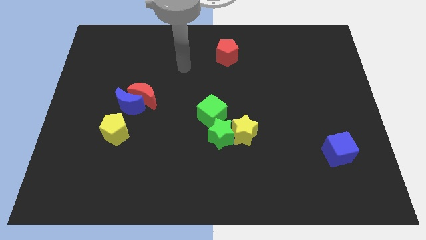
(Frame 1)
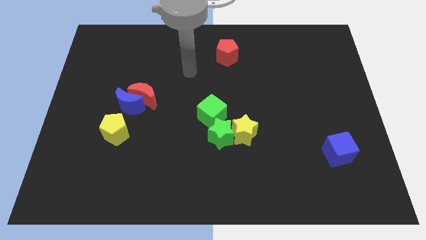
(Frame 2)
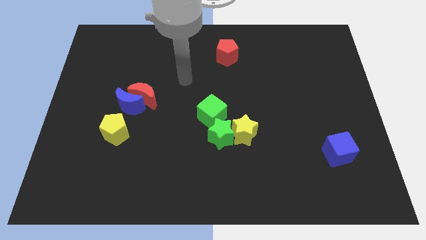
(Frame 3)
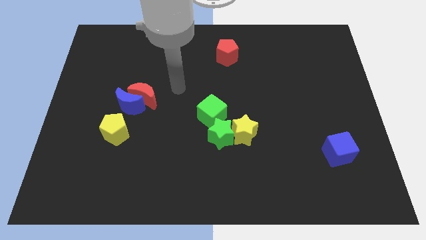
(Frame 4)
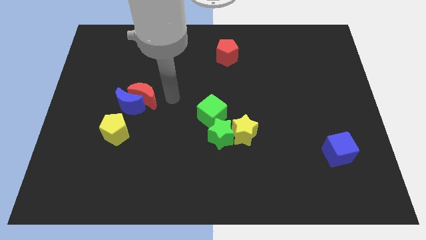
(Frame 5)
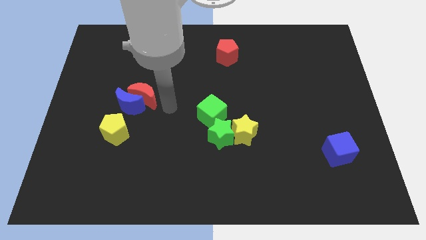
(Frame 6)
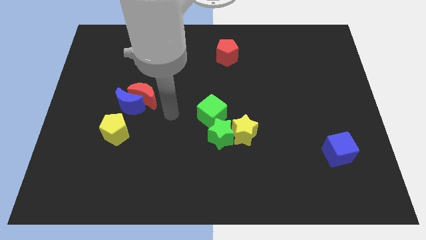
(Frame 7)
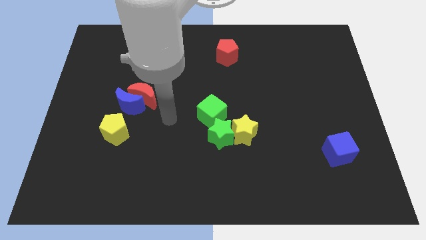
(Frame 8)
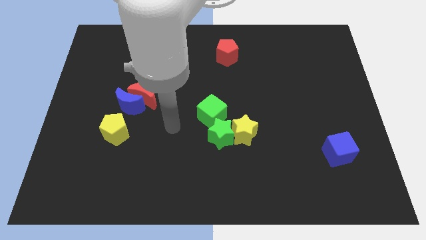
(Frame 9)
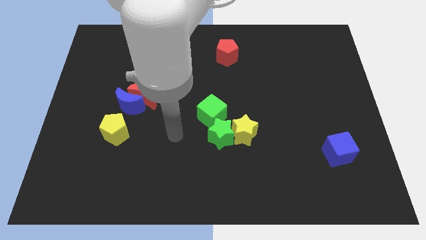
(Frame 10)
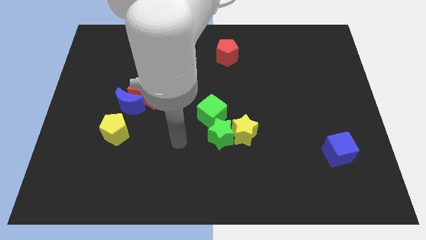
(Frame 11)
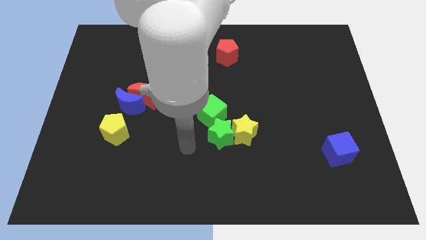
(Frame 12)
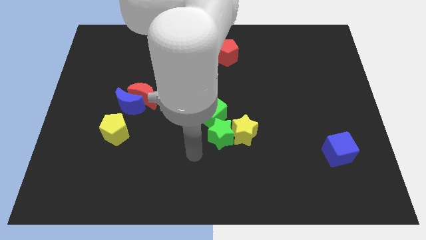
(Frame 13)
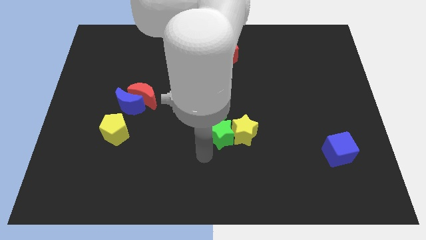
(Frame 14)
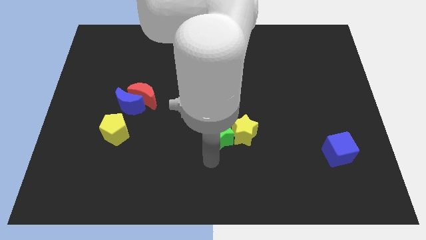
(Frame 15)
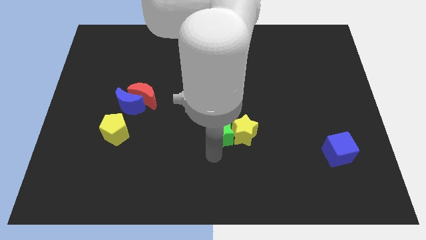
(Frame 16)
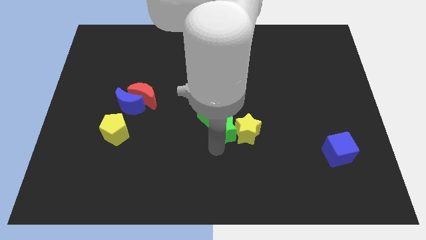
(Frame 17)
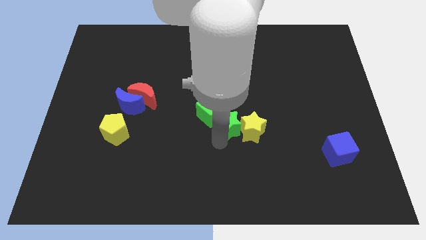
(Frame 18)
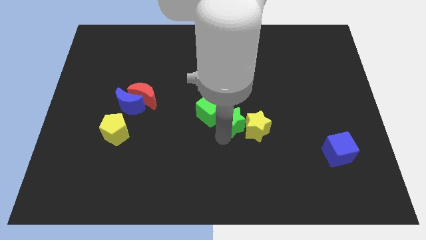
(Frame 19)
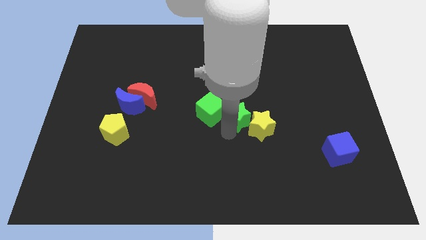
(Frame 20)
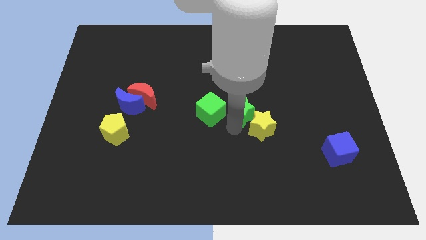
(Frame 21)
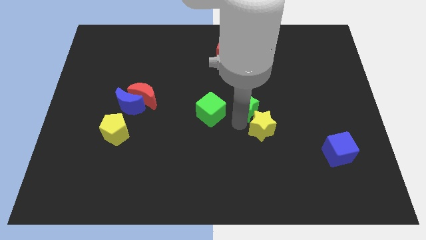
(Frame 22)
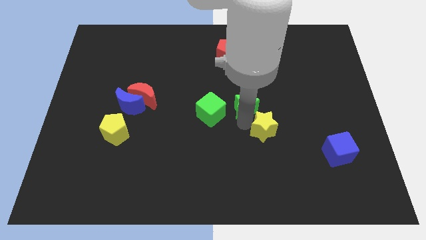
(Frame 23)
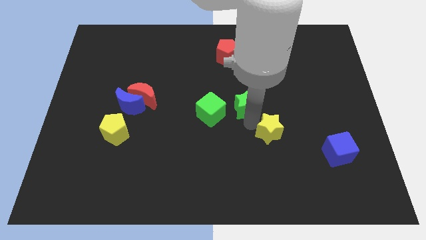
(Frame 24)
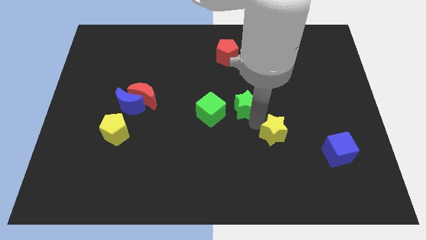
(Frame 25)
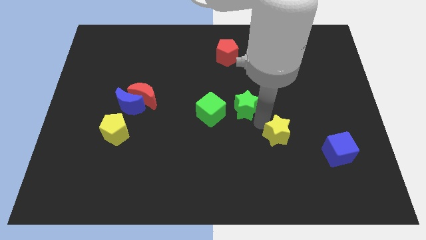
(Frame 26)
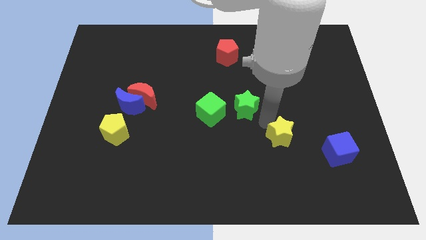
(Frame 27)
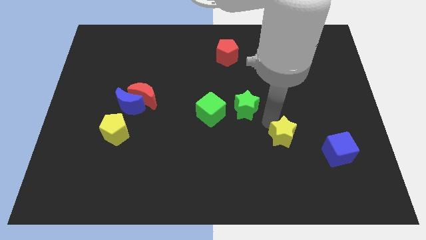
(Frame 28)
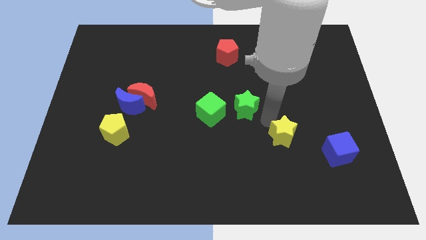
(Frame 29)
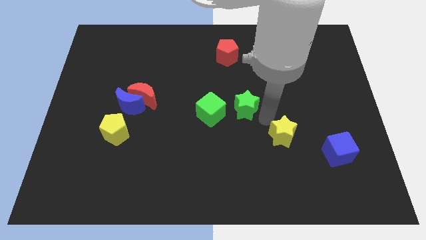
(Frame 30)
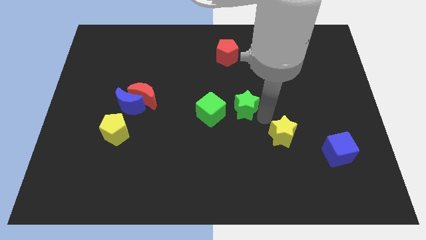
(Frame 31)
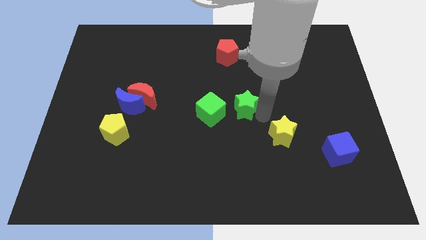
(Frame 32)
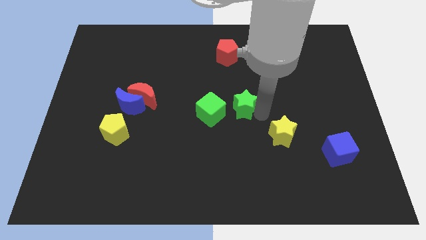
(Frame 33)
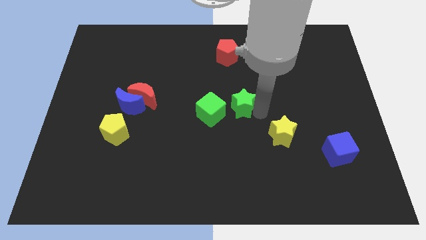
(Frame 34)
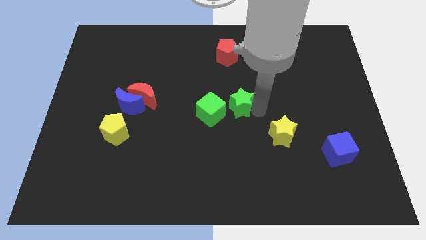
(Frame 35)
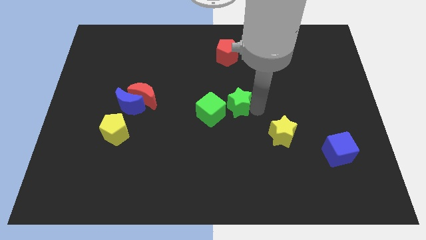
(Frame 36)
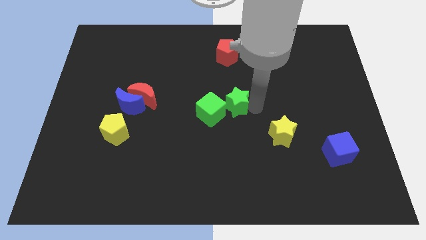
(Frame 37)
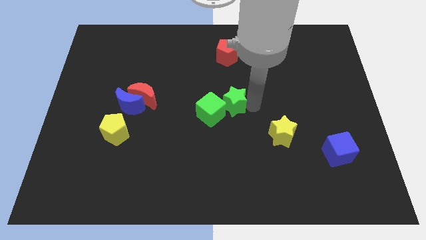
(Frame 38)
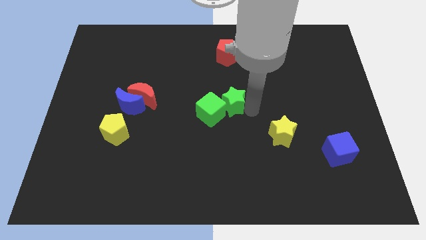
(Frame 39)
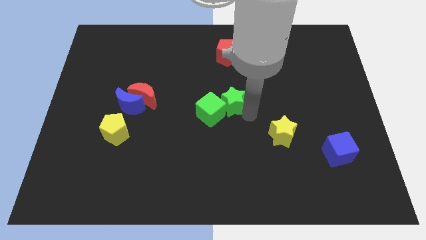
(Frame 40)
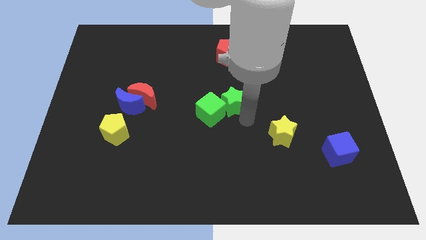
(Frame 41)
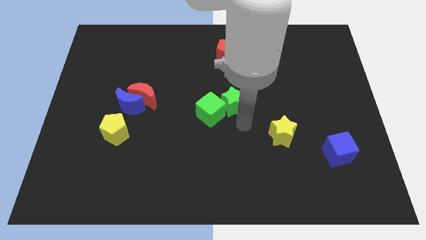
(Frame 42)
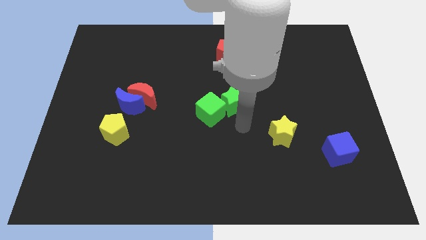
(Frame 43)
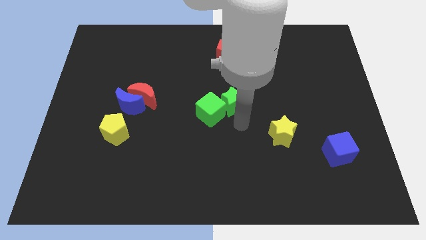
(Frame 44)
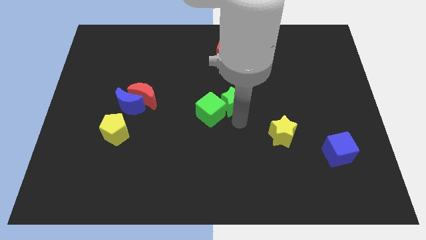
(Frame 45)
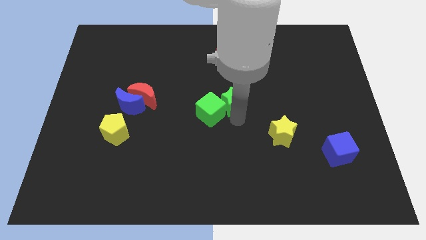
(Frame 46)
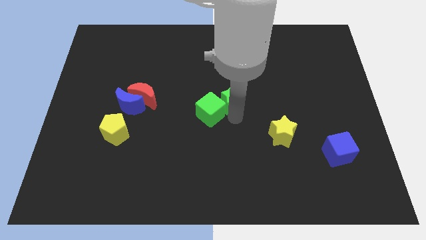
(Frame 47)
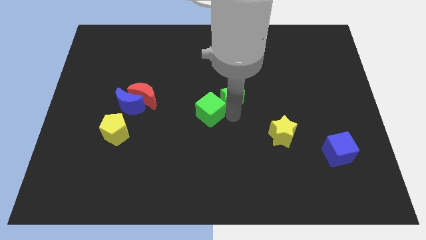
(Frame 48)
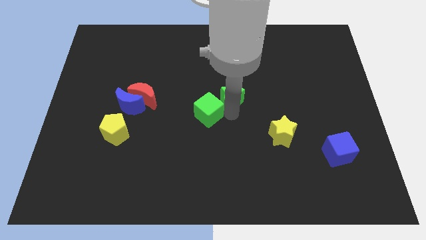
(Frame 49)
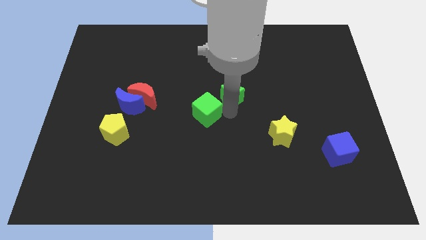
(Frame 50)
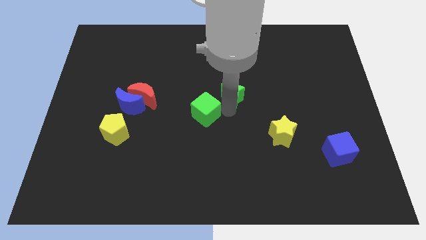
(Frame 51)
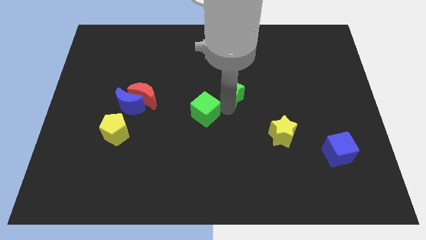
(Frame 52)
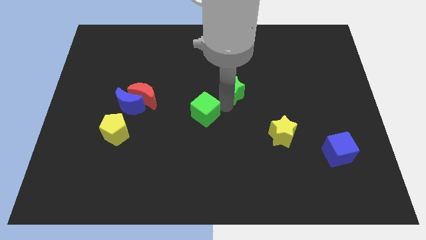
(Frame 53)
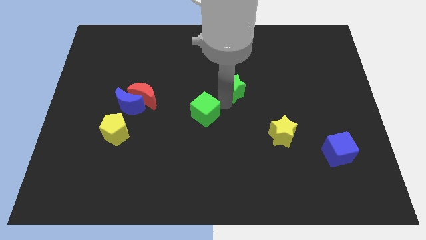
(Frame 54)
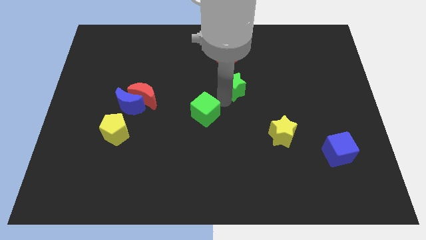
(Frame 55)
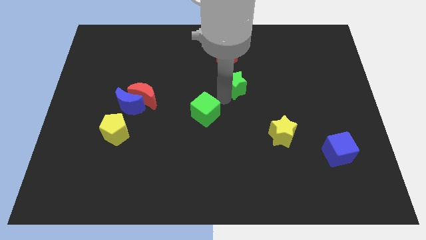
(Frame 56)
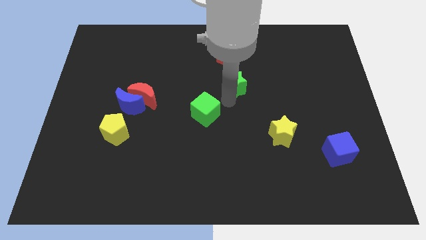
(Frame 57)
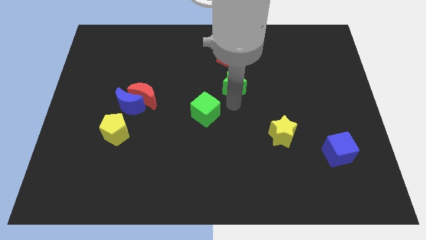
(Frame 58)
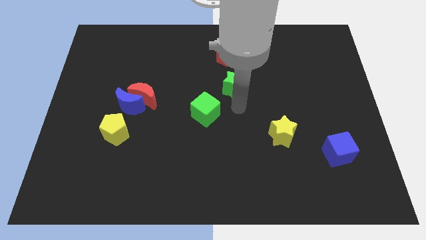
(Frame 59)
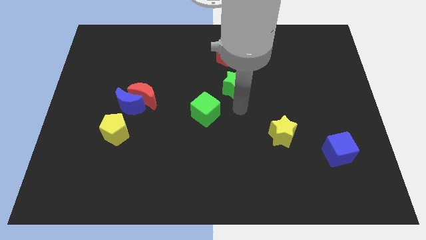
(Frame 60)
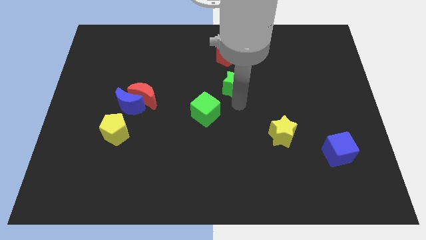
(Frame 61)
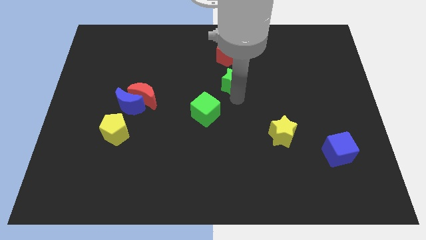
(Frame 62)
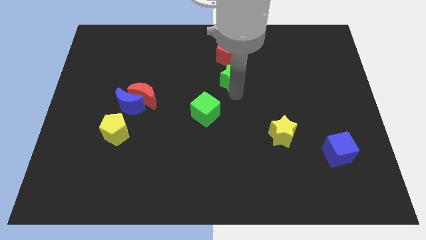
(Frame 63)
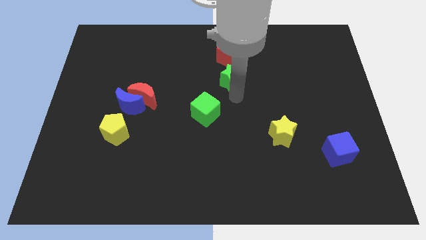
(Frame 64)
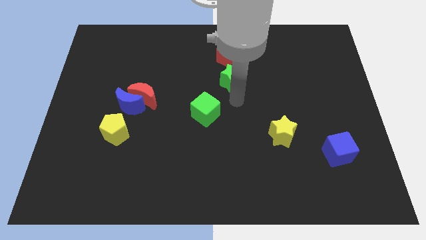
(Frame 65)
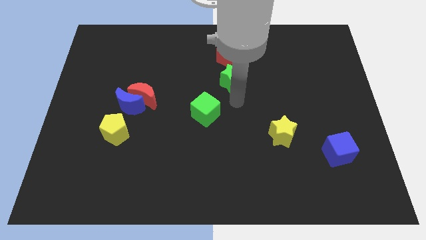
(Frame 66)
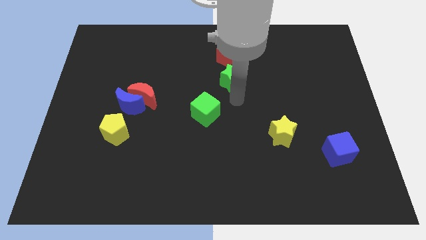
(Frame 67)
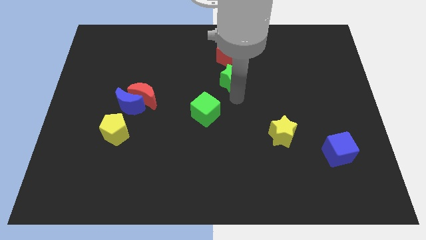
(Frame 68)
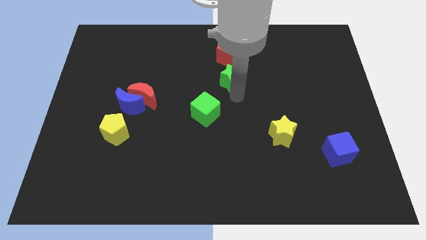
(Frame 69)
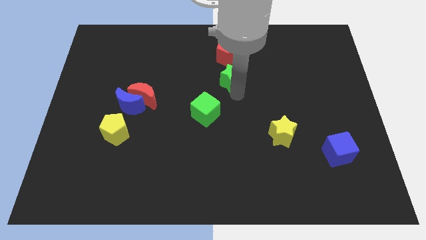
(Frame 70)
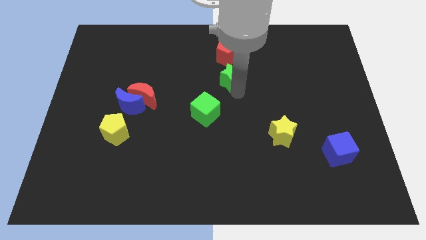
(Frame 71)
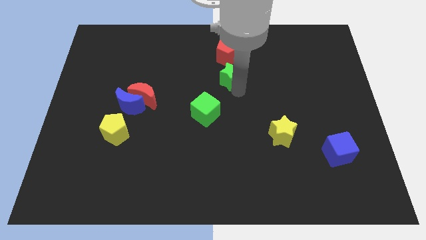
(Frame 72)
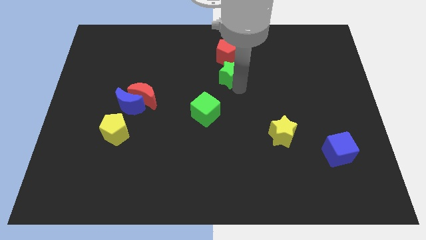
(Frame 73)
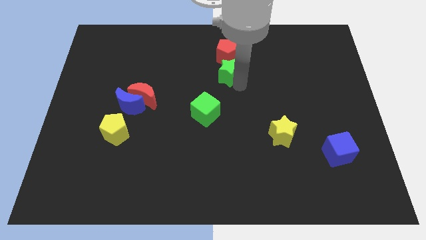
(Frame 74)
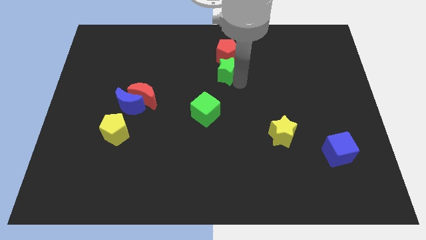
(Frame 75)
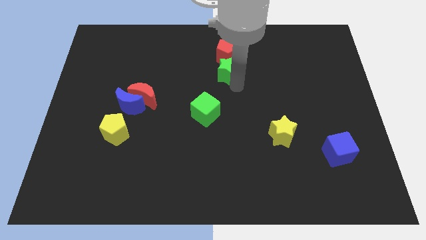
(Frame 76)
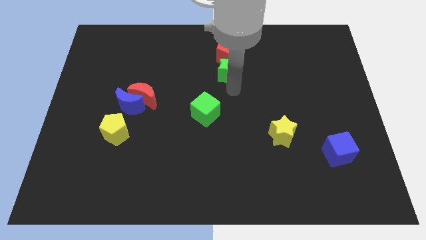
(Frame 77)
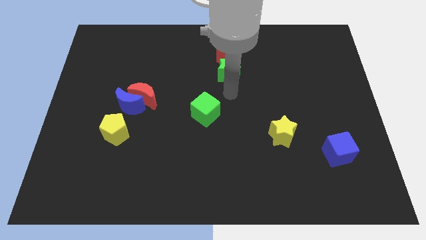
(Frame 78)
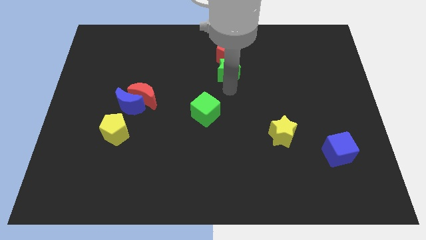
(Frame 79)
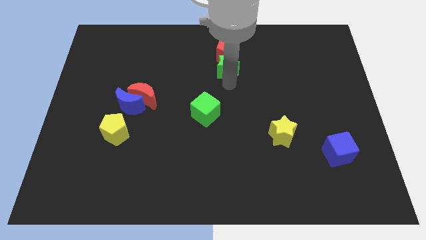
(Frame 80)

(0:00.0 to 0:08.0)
move the green star towards the red pentagon
